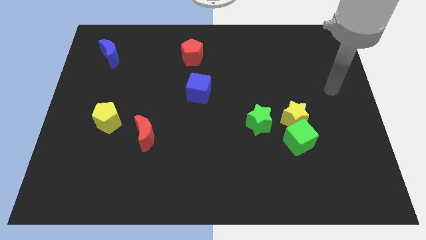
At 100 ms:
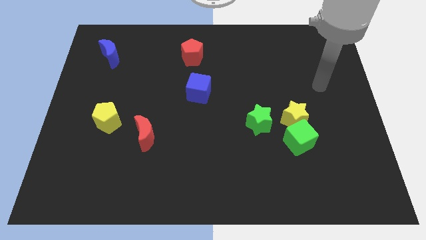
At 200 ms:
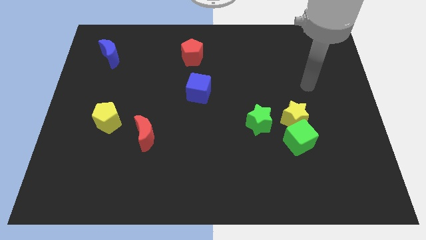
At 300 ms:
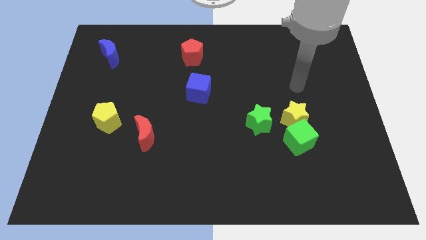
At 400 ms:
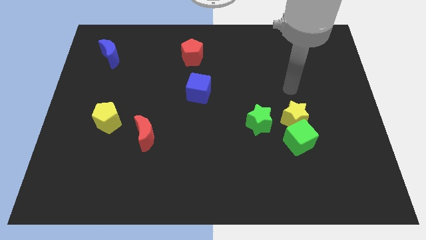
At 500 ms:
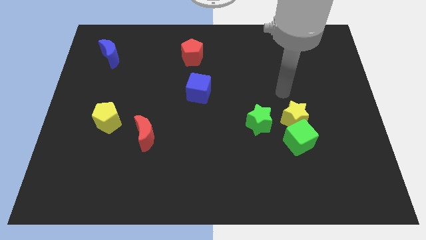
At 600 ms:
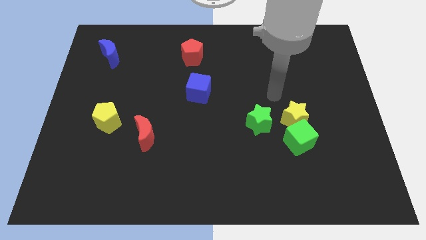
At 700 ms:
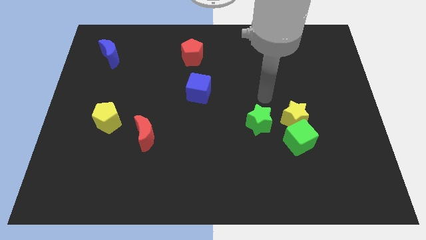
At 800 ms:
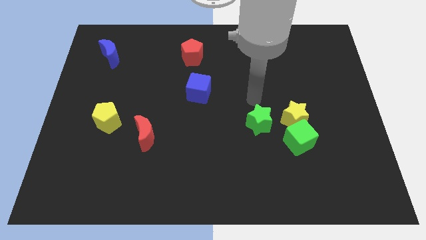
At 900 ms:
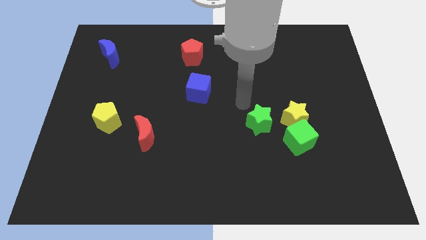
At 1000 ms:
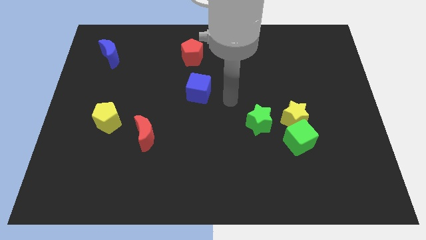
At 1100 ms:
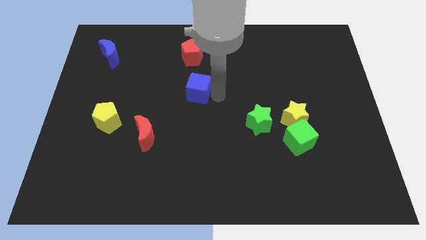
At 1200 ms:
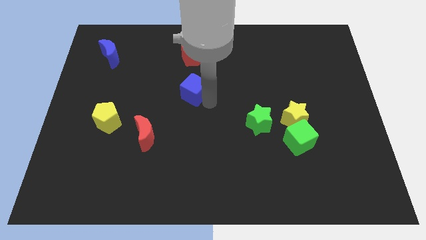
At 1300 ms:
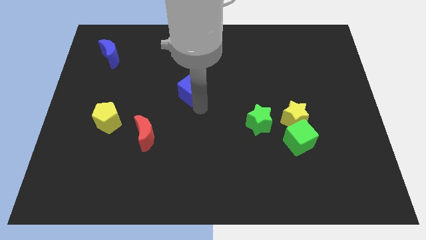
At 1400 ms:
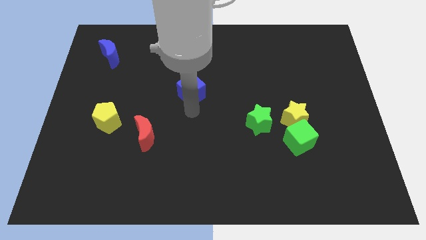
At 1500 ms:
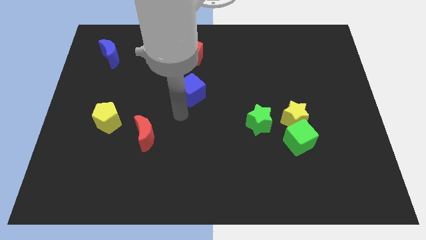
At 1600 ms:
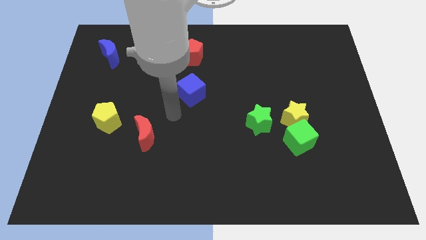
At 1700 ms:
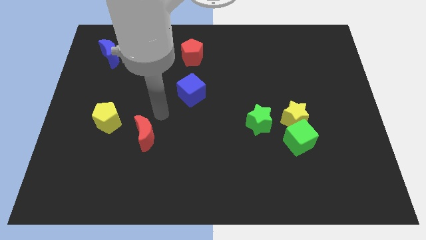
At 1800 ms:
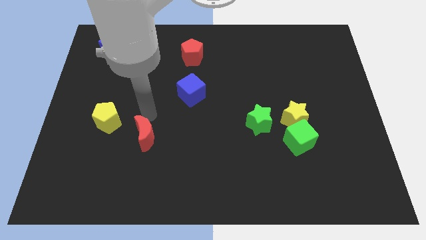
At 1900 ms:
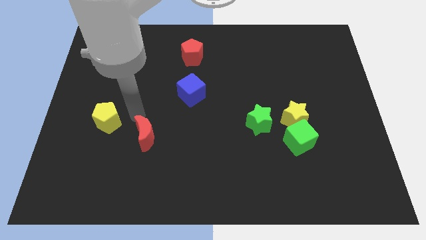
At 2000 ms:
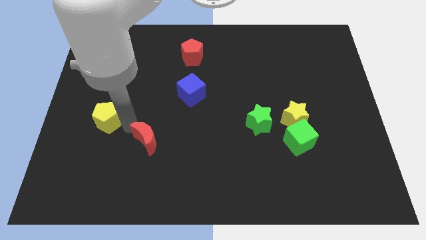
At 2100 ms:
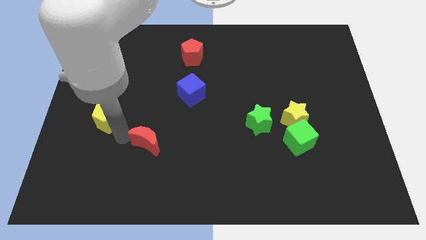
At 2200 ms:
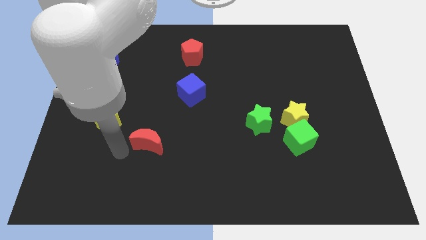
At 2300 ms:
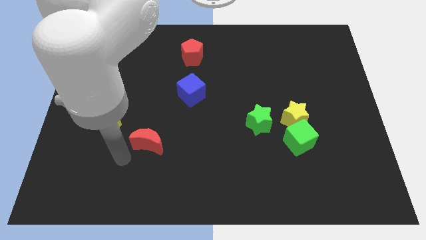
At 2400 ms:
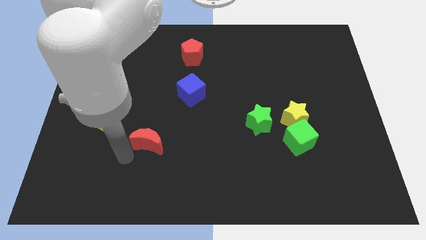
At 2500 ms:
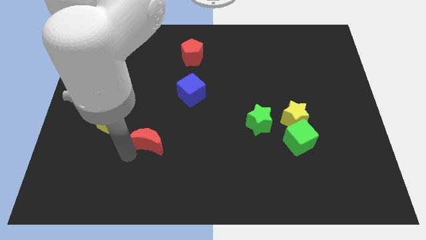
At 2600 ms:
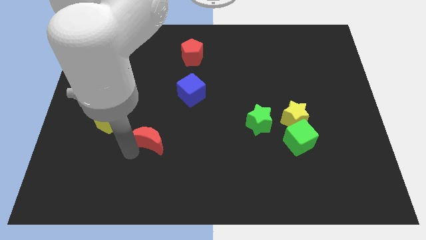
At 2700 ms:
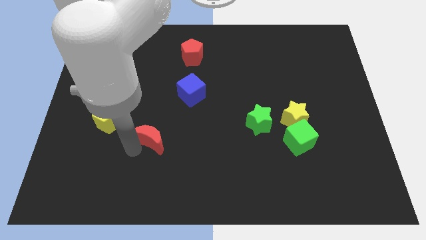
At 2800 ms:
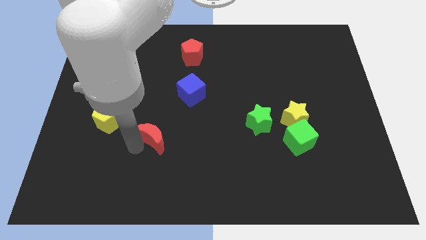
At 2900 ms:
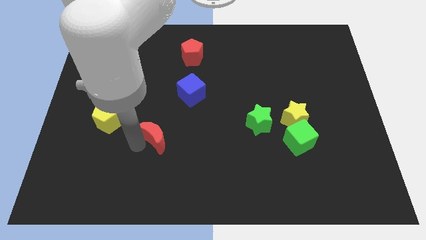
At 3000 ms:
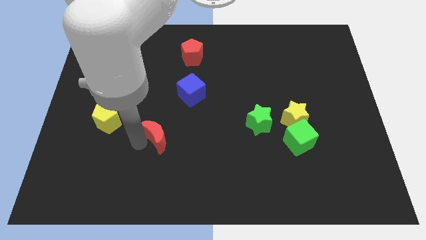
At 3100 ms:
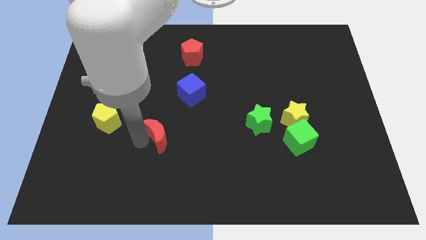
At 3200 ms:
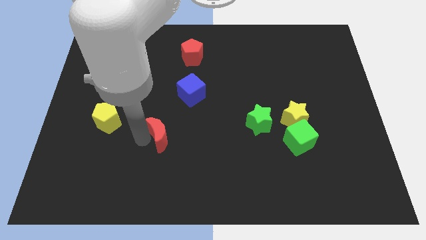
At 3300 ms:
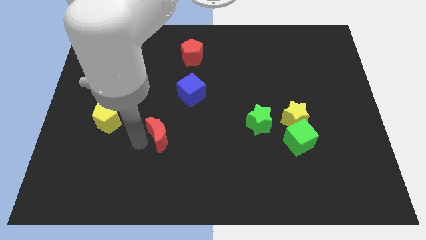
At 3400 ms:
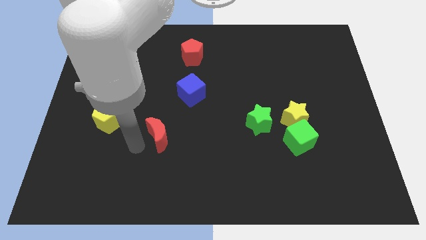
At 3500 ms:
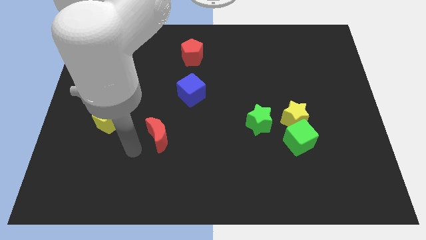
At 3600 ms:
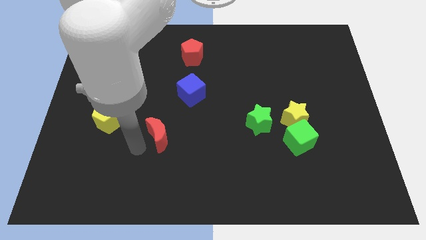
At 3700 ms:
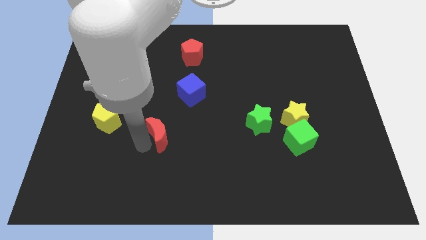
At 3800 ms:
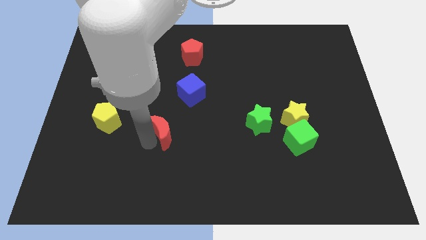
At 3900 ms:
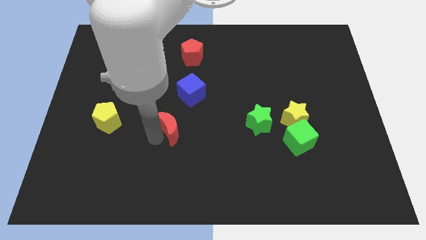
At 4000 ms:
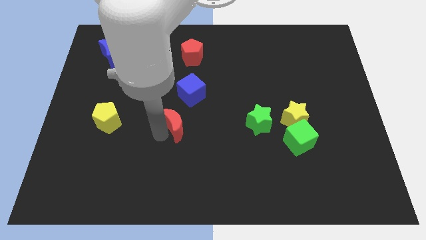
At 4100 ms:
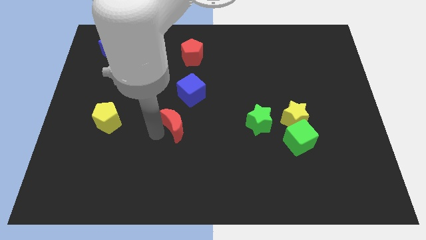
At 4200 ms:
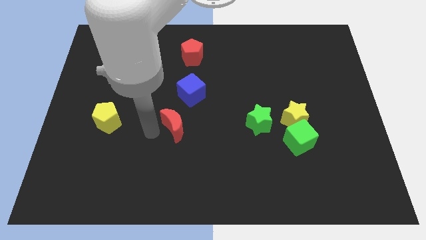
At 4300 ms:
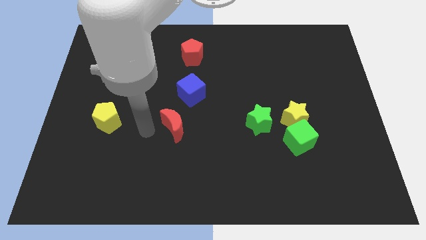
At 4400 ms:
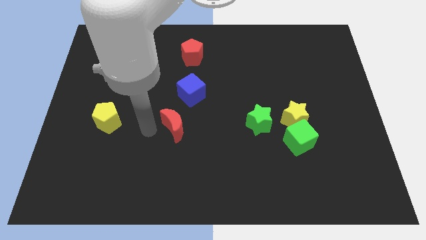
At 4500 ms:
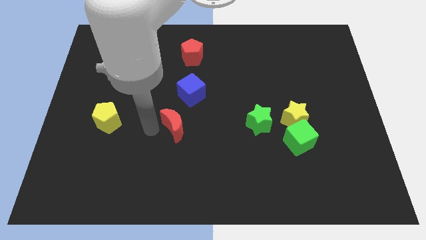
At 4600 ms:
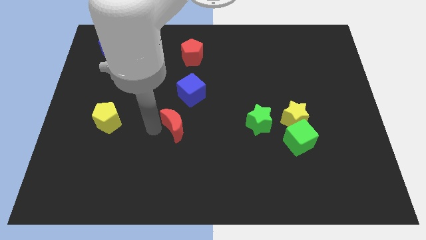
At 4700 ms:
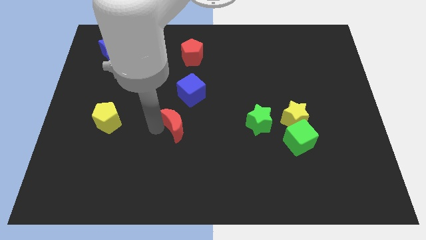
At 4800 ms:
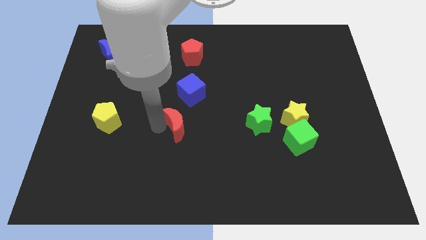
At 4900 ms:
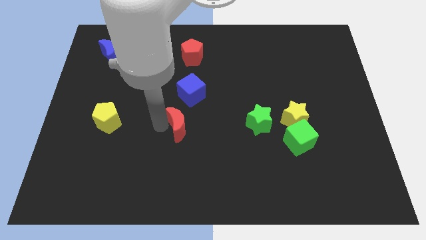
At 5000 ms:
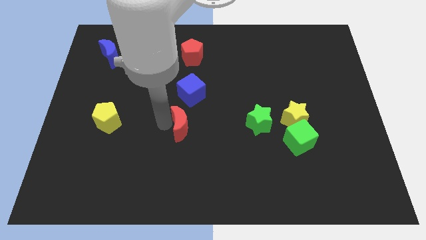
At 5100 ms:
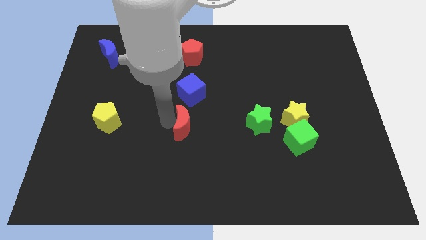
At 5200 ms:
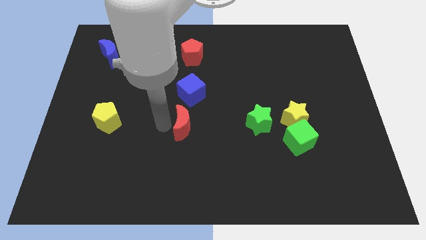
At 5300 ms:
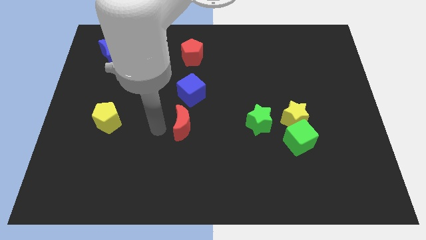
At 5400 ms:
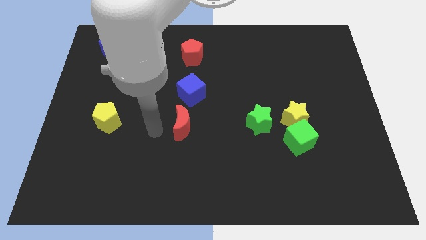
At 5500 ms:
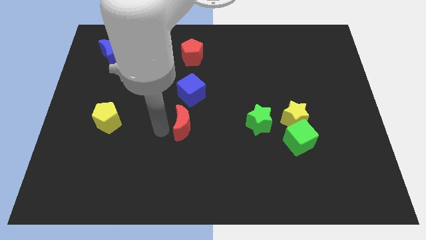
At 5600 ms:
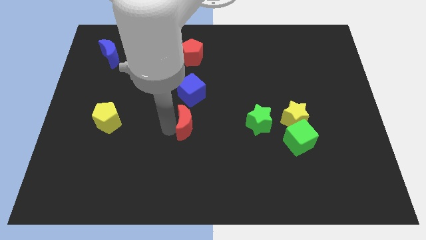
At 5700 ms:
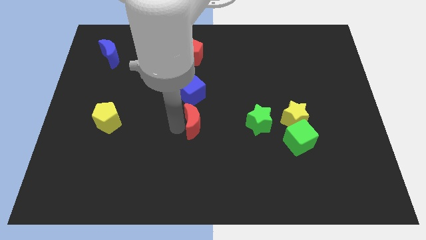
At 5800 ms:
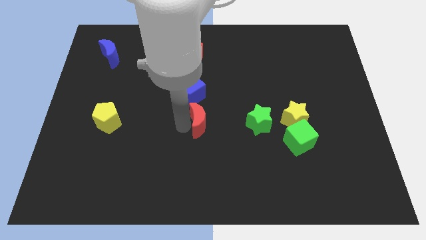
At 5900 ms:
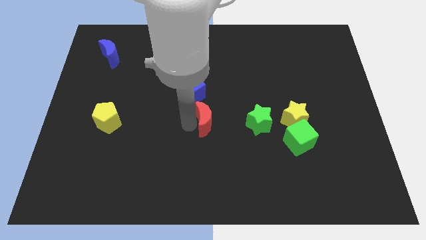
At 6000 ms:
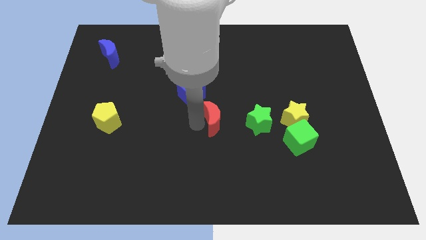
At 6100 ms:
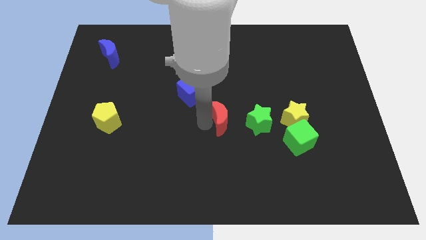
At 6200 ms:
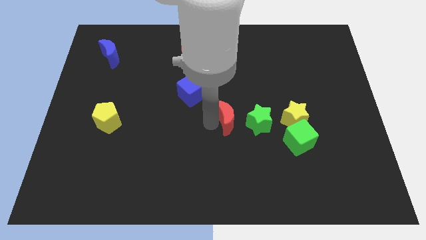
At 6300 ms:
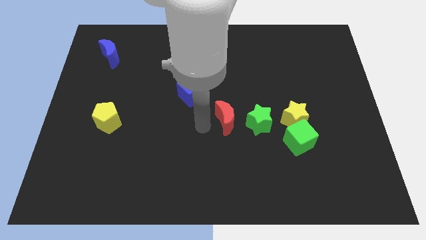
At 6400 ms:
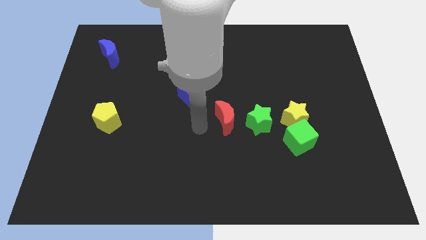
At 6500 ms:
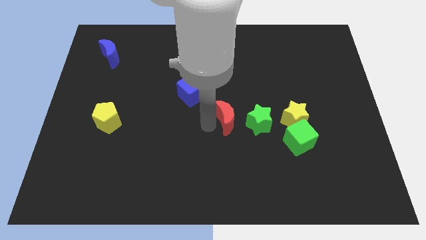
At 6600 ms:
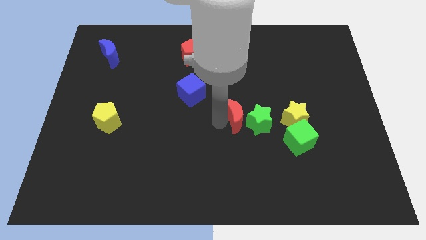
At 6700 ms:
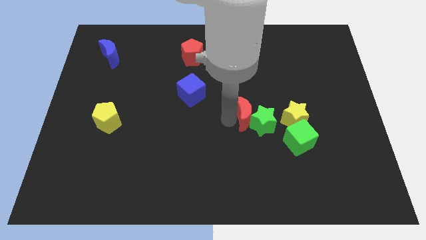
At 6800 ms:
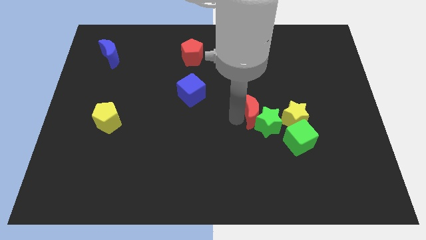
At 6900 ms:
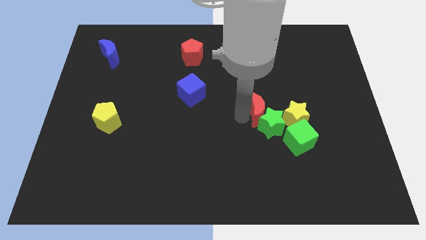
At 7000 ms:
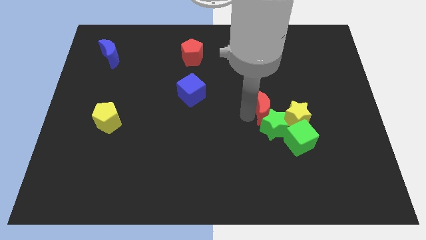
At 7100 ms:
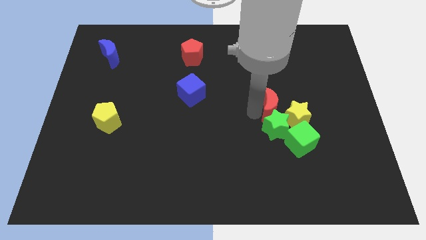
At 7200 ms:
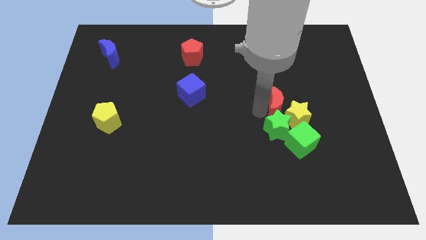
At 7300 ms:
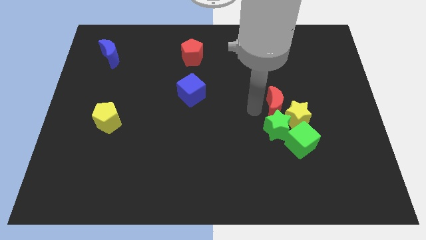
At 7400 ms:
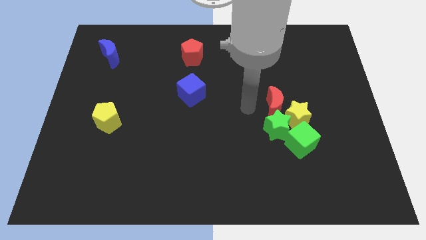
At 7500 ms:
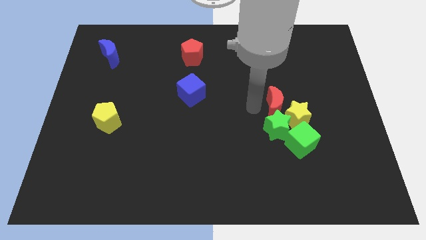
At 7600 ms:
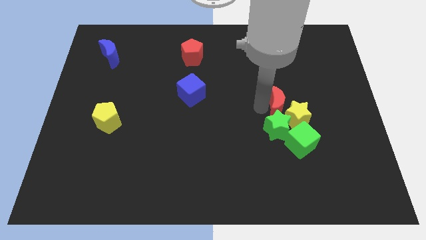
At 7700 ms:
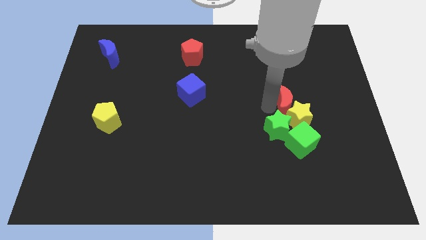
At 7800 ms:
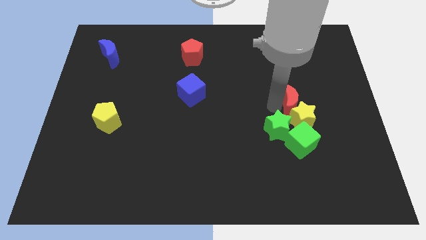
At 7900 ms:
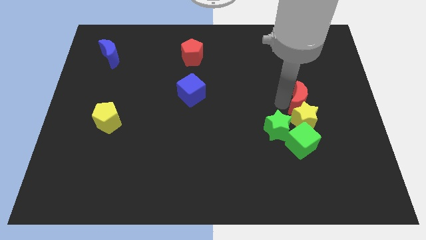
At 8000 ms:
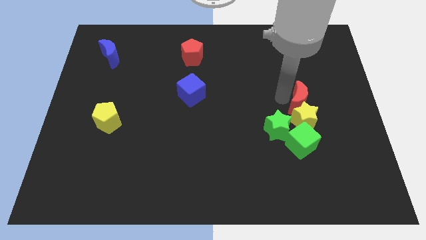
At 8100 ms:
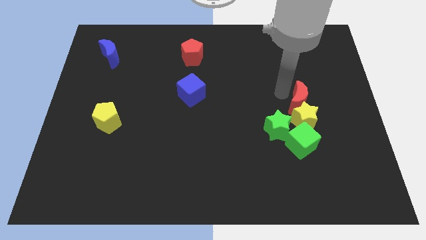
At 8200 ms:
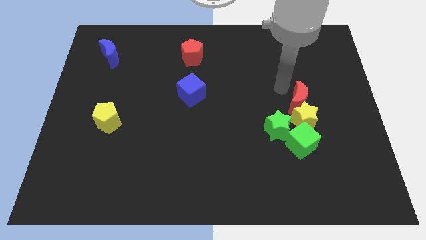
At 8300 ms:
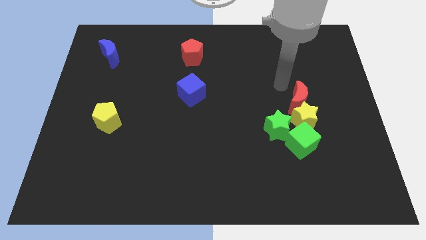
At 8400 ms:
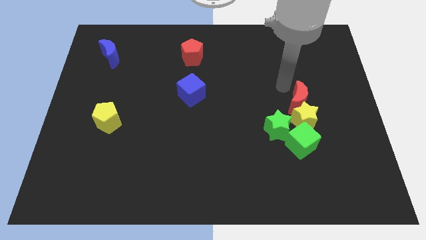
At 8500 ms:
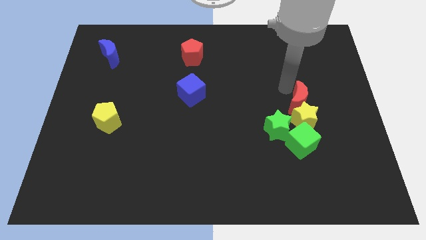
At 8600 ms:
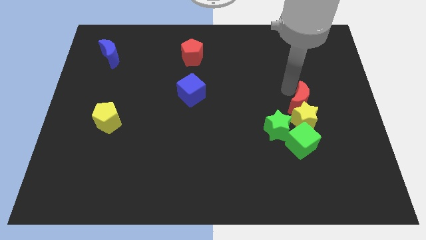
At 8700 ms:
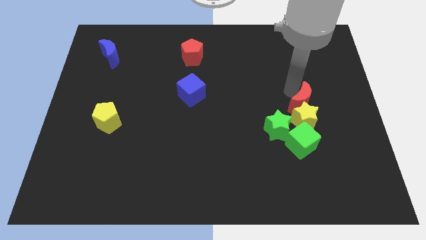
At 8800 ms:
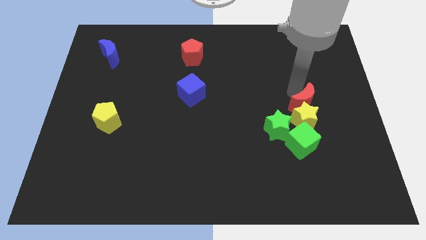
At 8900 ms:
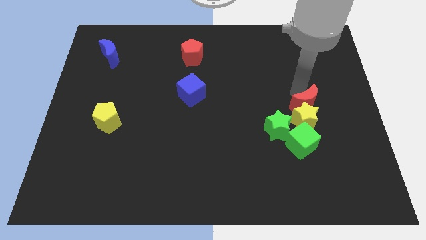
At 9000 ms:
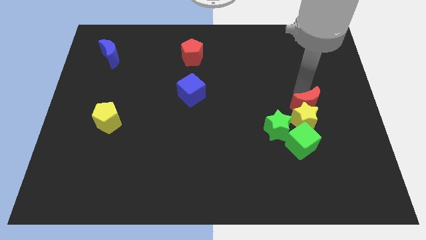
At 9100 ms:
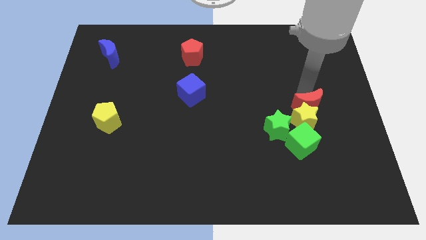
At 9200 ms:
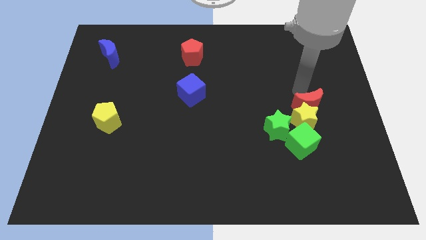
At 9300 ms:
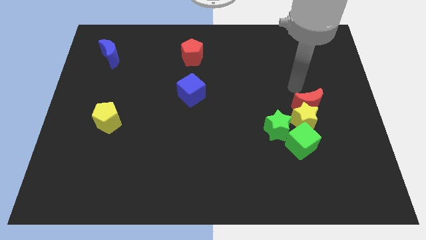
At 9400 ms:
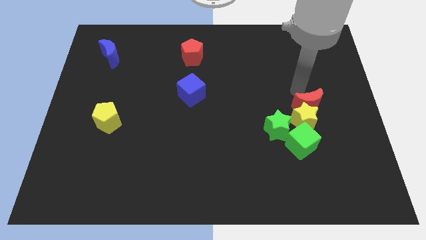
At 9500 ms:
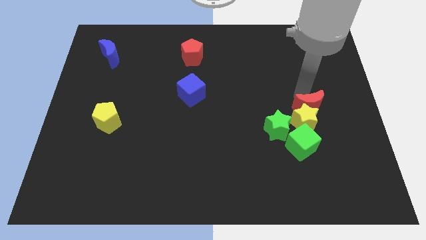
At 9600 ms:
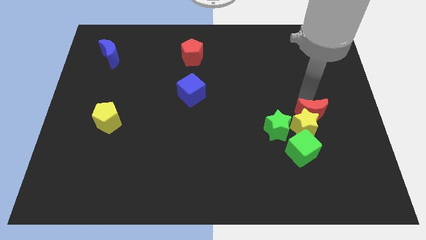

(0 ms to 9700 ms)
move the red moon diagonally up and to the right of the green cube
